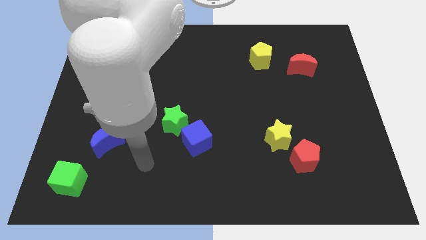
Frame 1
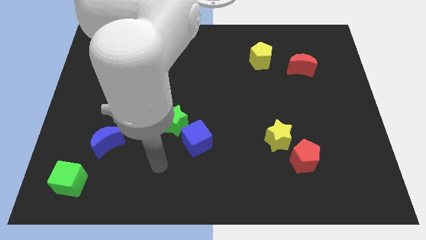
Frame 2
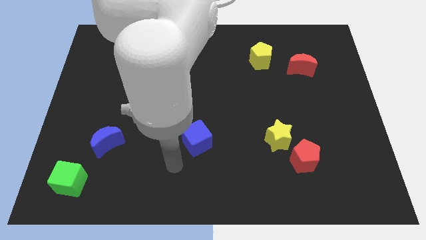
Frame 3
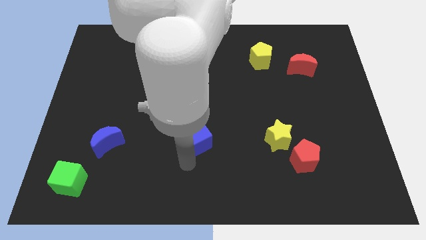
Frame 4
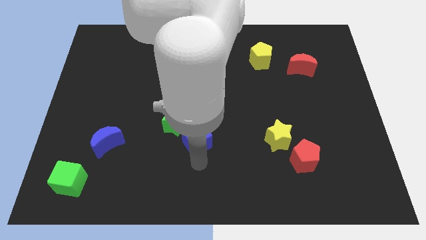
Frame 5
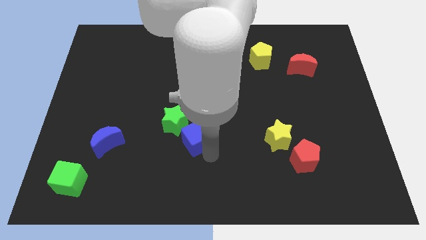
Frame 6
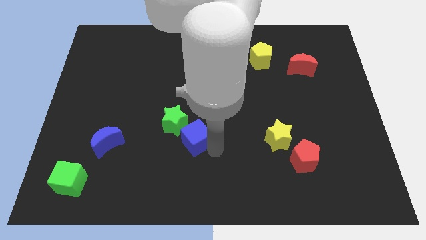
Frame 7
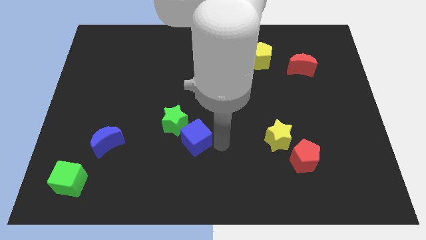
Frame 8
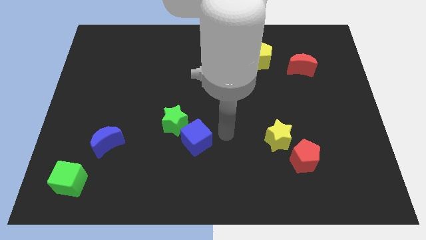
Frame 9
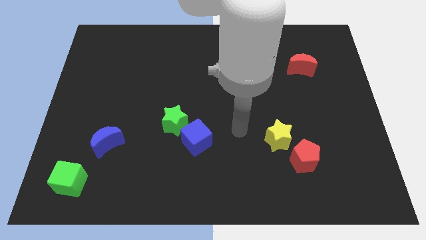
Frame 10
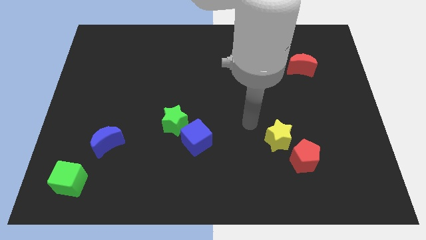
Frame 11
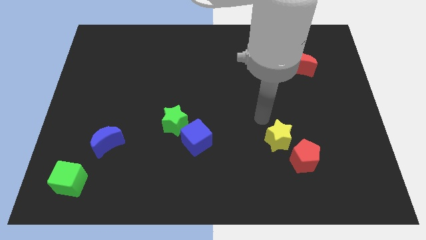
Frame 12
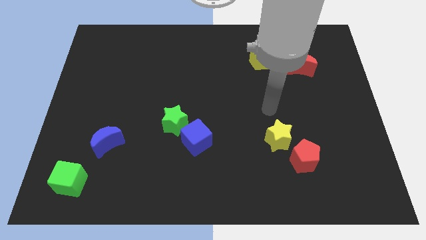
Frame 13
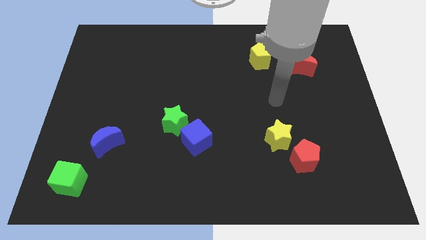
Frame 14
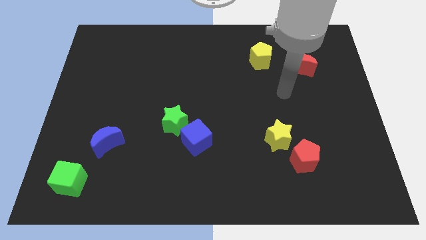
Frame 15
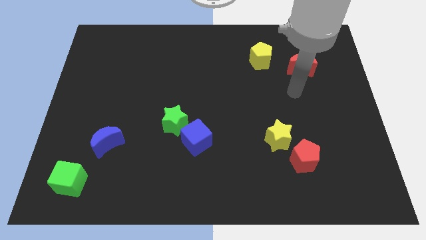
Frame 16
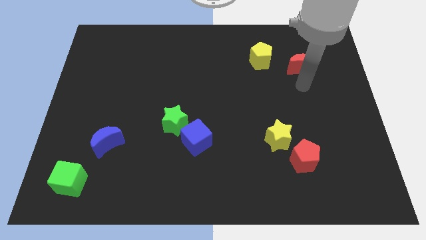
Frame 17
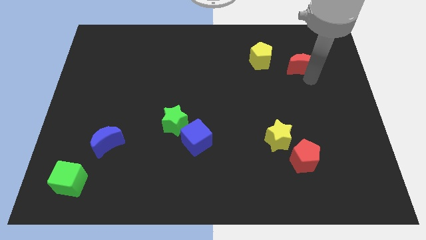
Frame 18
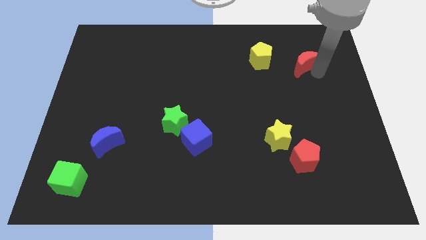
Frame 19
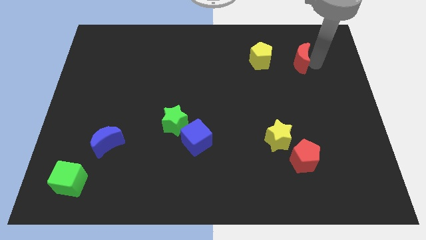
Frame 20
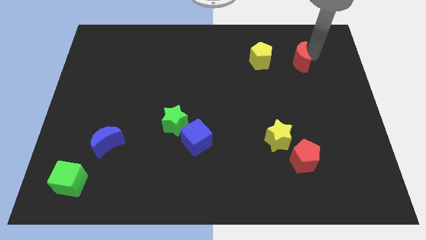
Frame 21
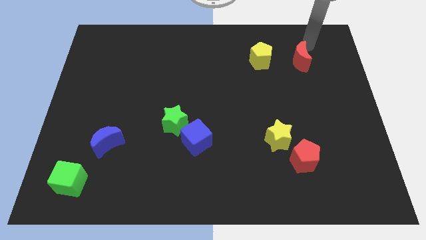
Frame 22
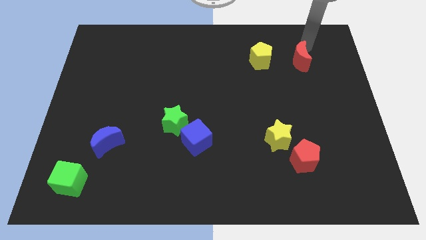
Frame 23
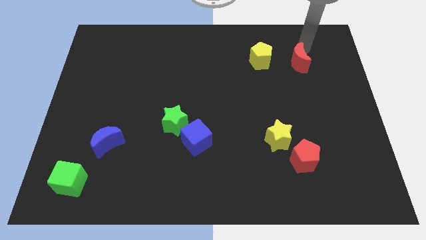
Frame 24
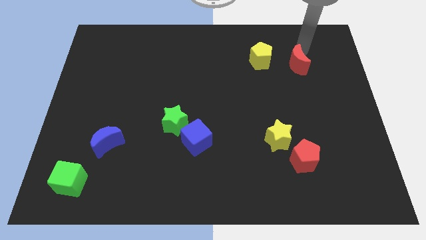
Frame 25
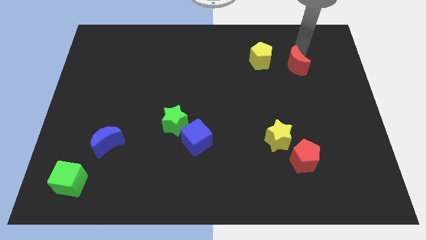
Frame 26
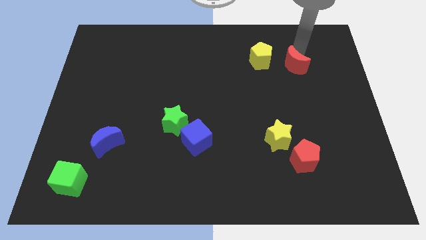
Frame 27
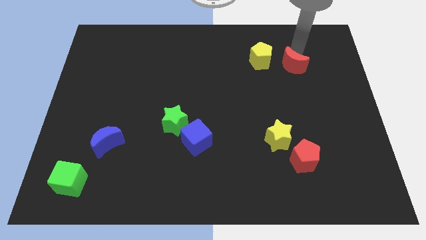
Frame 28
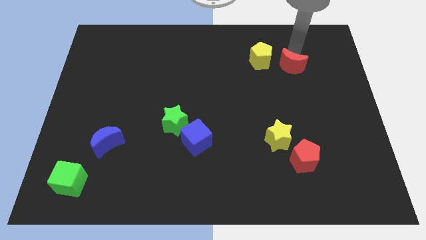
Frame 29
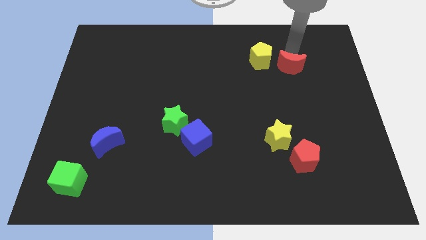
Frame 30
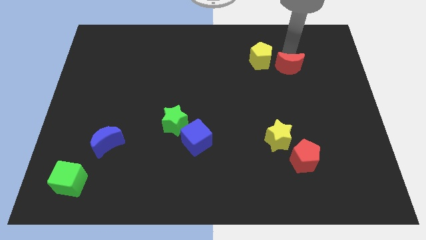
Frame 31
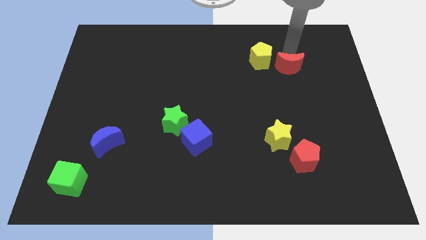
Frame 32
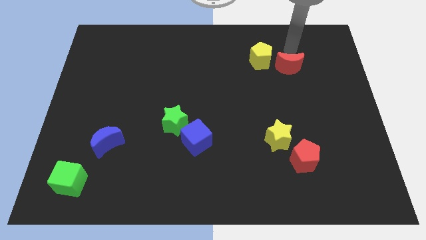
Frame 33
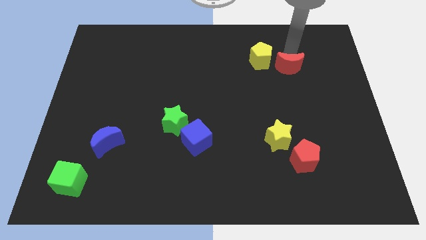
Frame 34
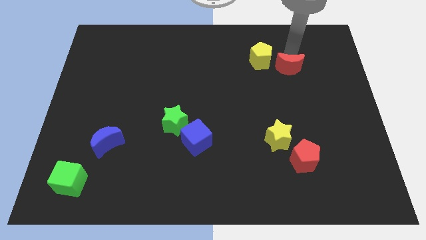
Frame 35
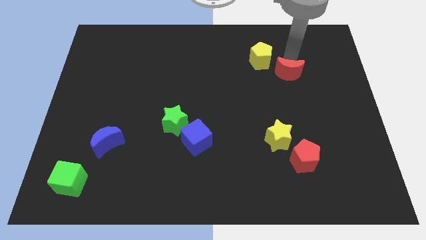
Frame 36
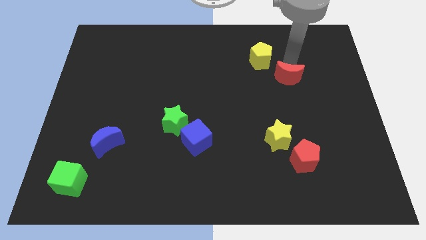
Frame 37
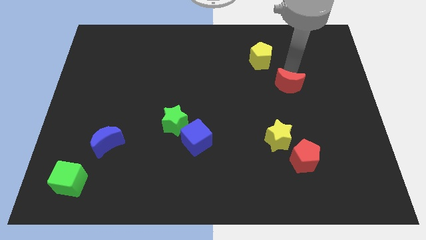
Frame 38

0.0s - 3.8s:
push the red moon diagonally downwards and left a little

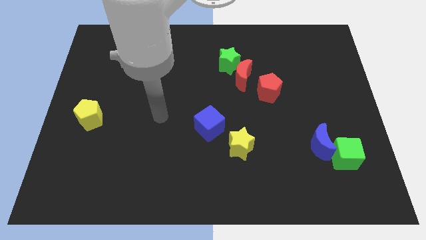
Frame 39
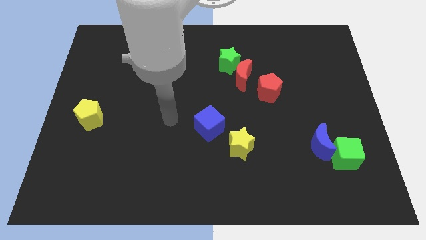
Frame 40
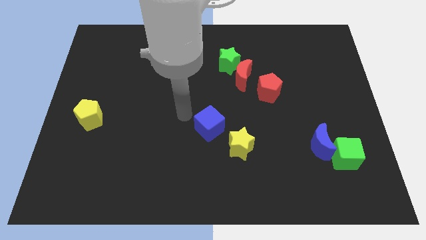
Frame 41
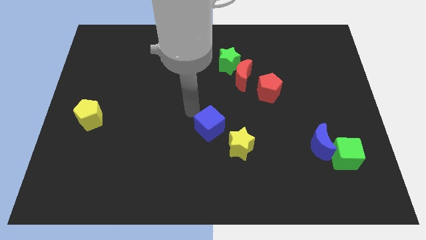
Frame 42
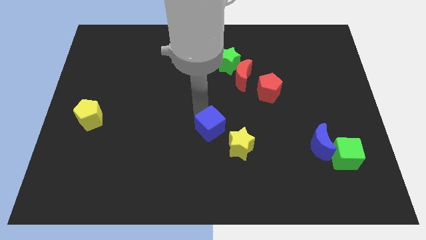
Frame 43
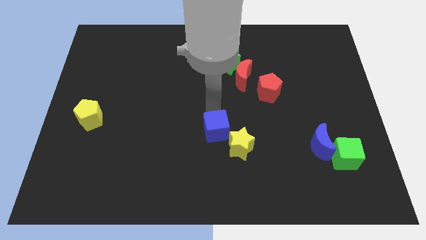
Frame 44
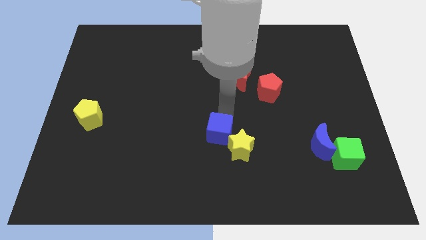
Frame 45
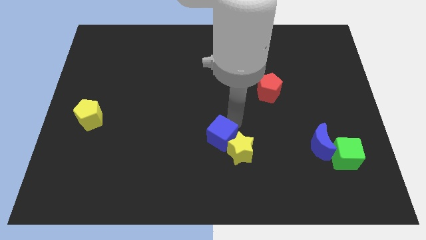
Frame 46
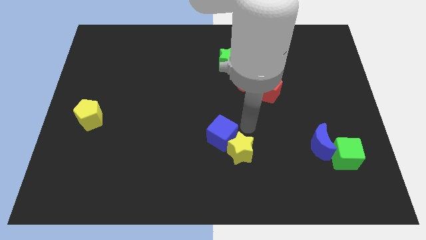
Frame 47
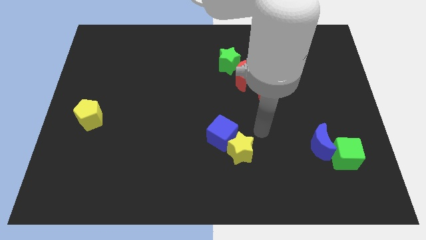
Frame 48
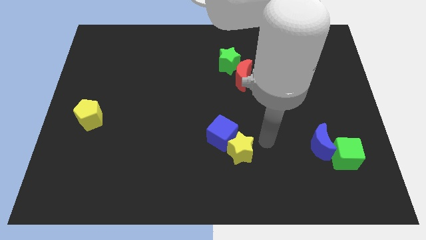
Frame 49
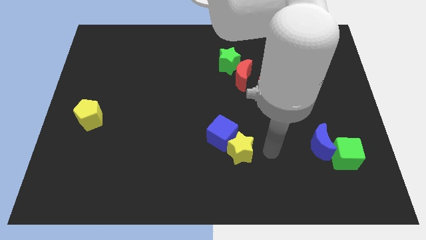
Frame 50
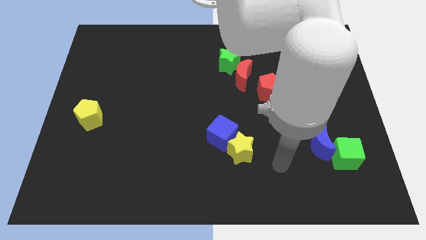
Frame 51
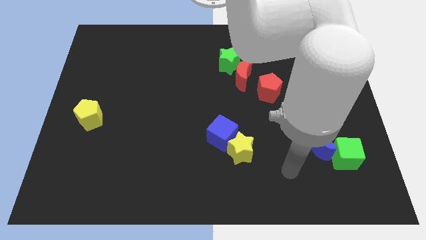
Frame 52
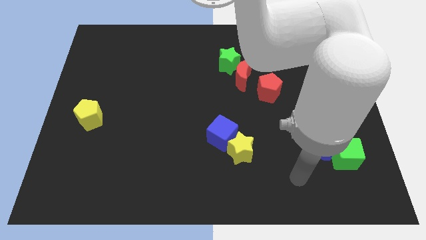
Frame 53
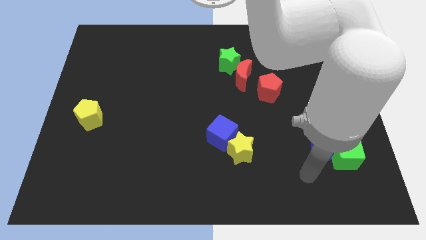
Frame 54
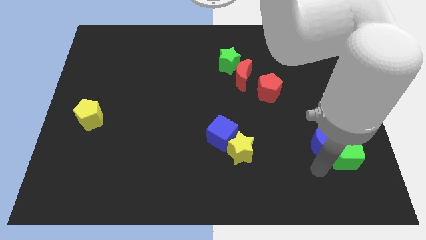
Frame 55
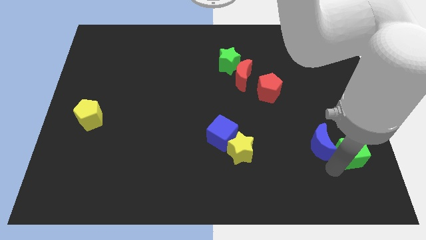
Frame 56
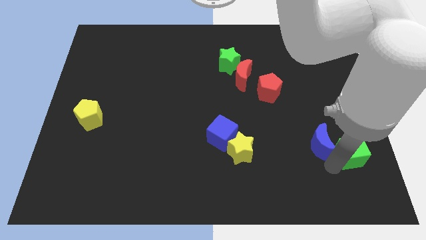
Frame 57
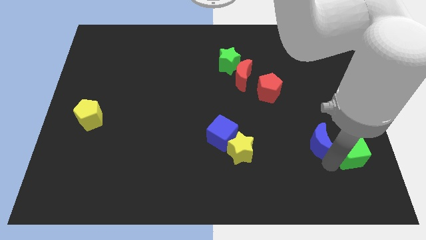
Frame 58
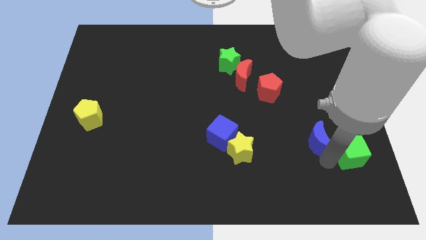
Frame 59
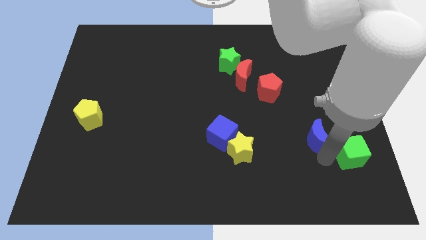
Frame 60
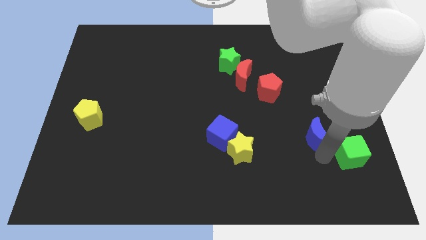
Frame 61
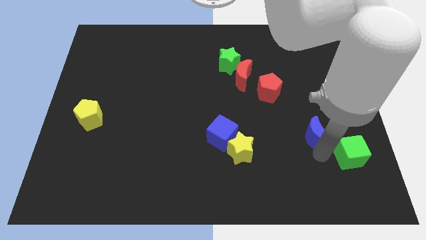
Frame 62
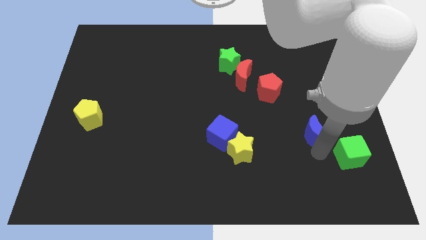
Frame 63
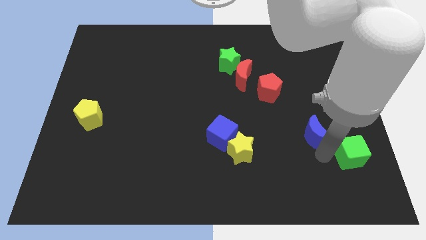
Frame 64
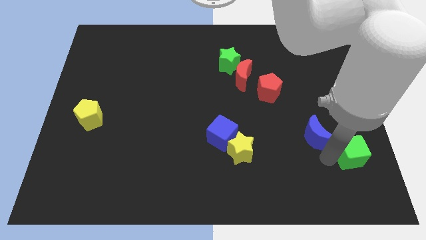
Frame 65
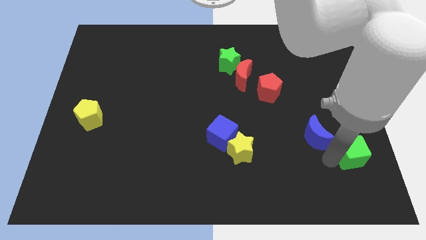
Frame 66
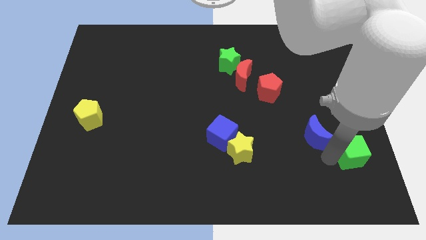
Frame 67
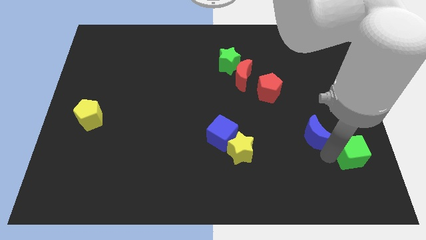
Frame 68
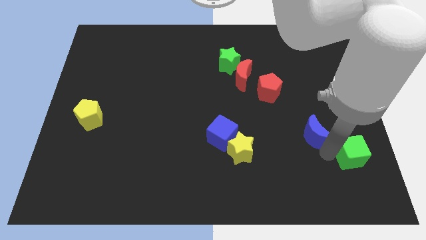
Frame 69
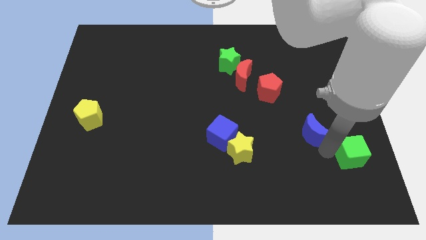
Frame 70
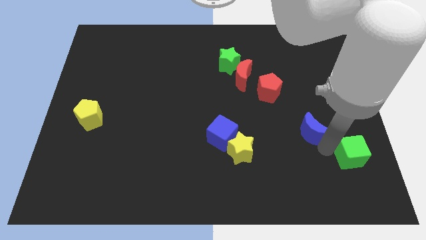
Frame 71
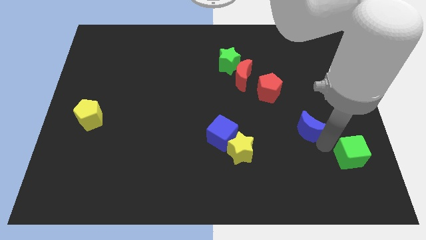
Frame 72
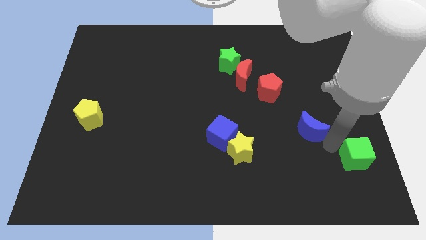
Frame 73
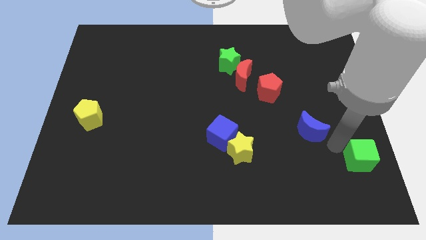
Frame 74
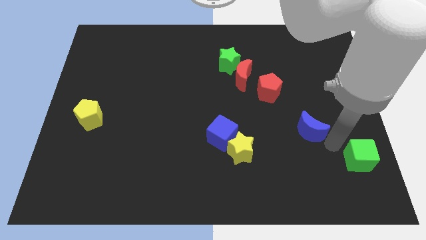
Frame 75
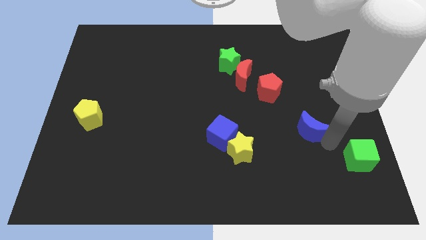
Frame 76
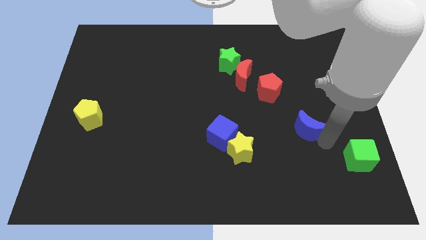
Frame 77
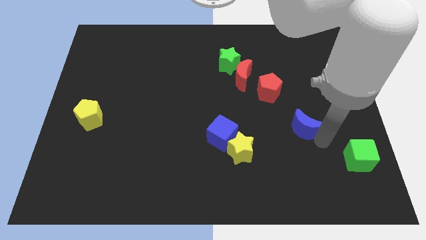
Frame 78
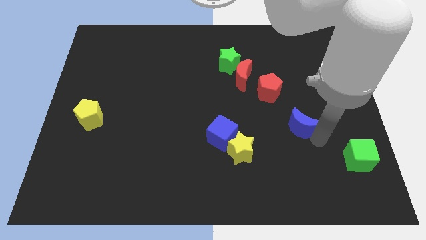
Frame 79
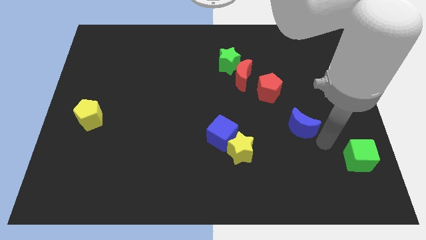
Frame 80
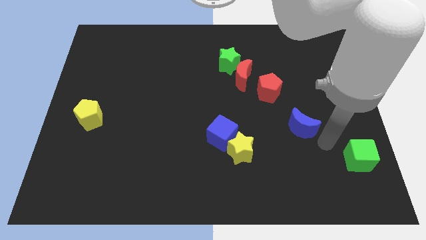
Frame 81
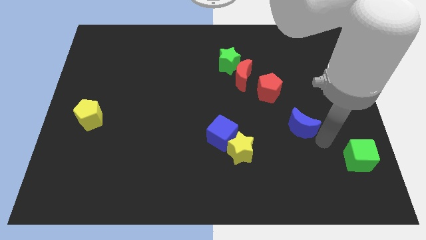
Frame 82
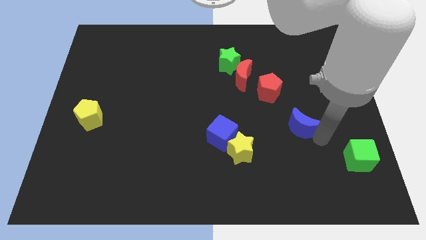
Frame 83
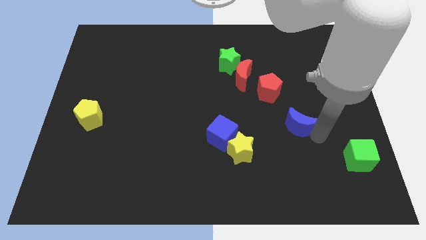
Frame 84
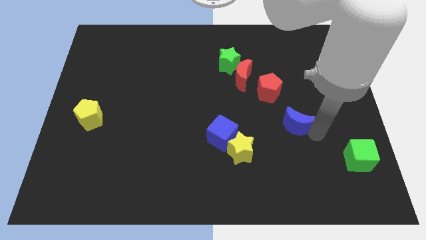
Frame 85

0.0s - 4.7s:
slide the blue moon a little upwards and then to the left
